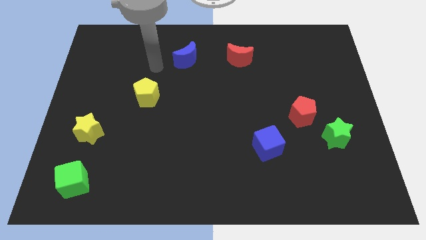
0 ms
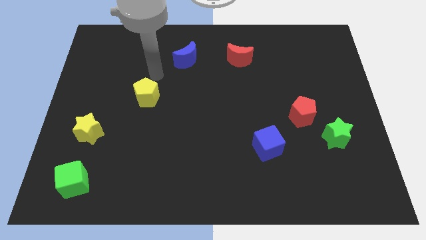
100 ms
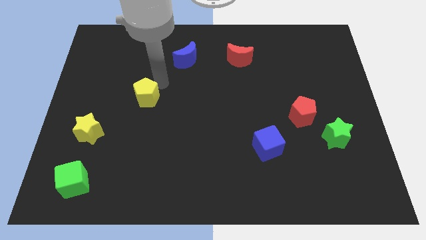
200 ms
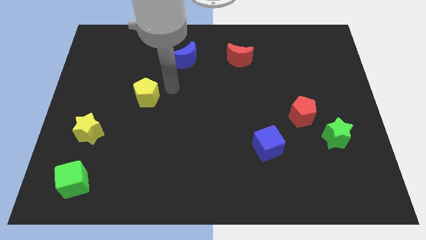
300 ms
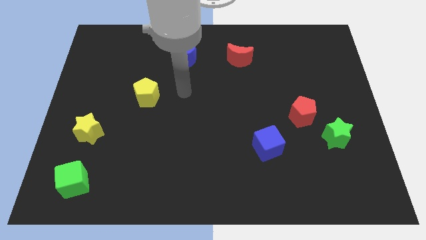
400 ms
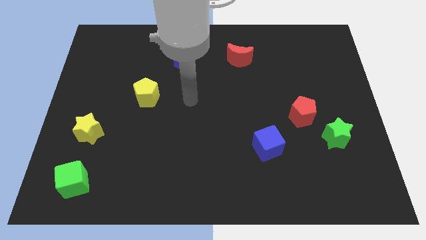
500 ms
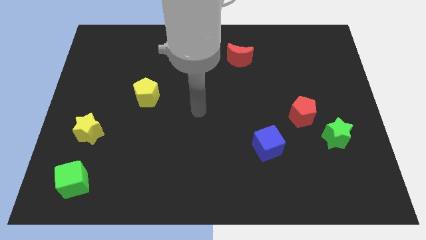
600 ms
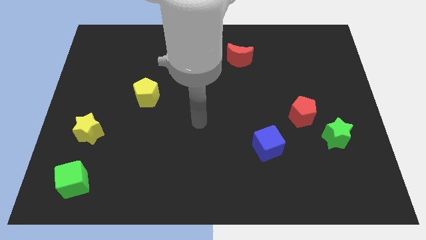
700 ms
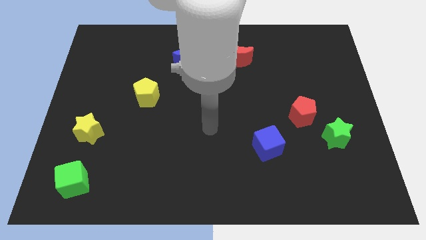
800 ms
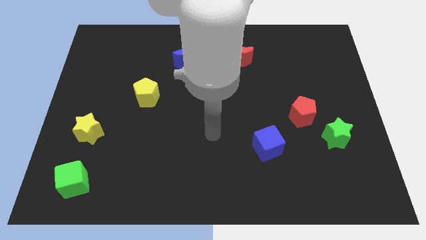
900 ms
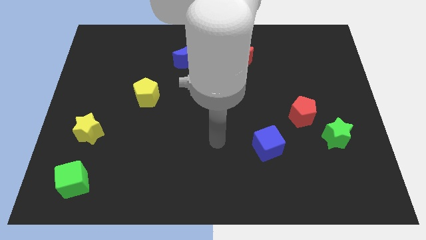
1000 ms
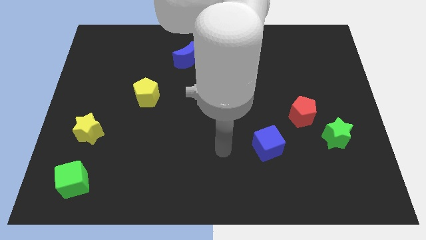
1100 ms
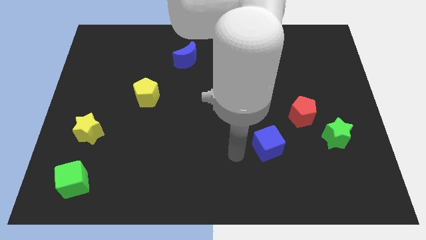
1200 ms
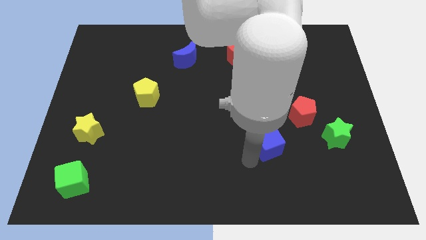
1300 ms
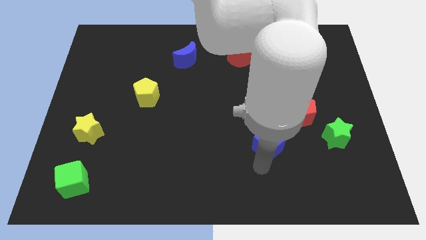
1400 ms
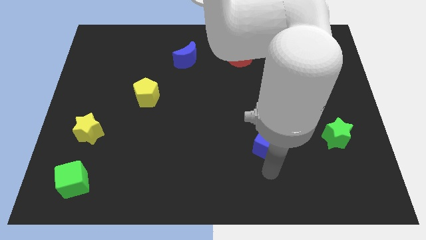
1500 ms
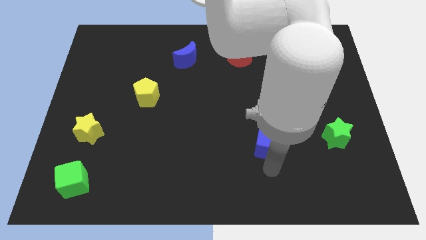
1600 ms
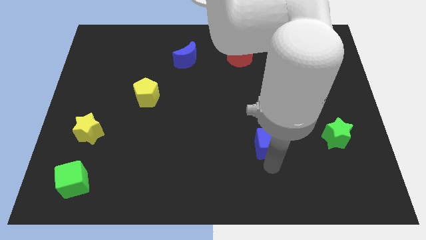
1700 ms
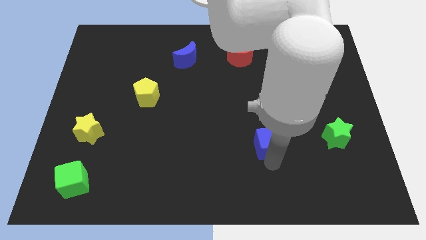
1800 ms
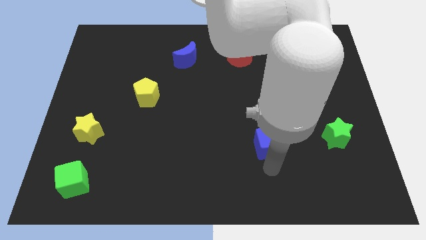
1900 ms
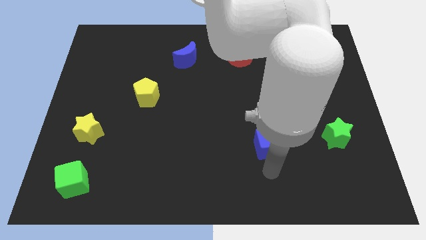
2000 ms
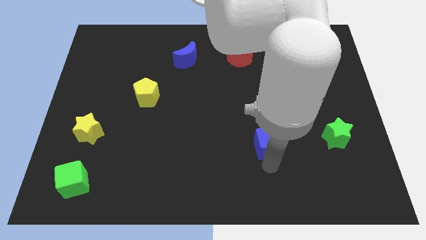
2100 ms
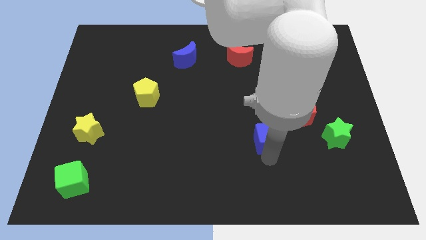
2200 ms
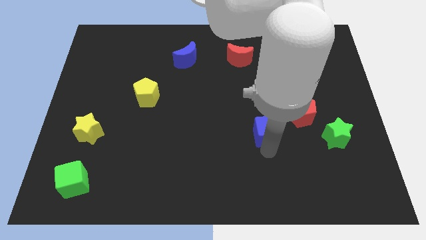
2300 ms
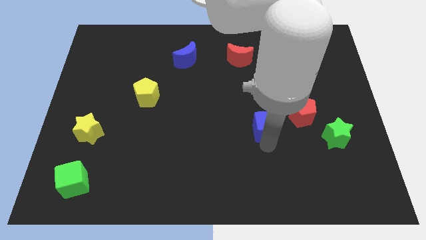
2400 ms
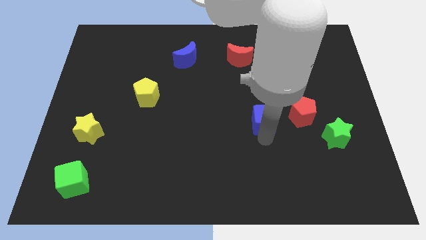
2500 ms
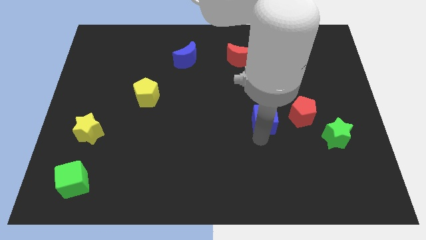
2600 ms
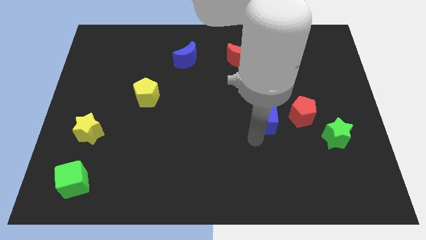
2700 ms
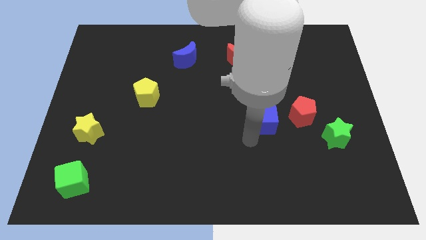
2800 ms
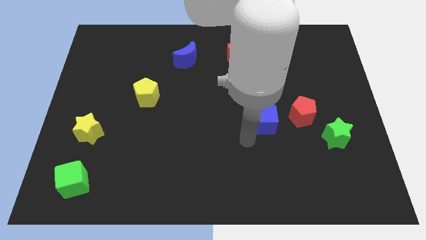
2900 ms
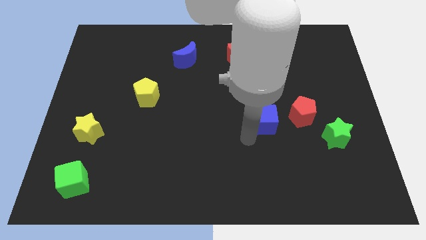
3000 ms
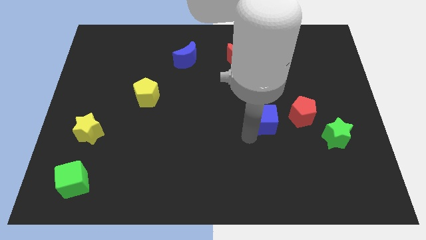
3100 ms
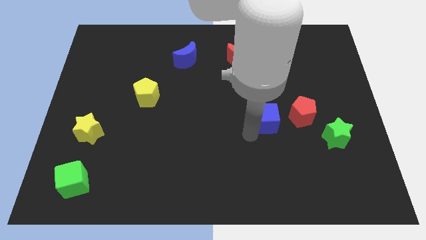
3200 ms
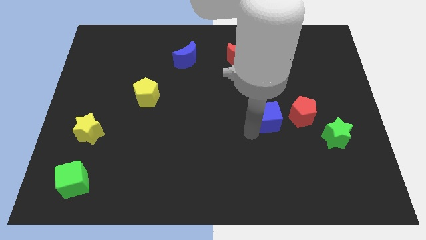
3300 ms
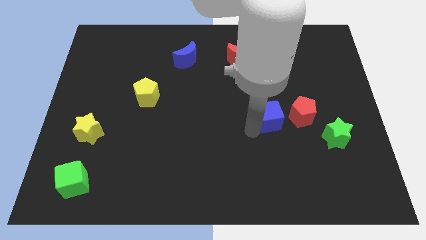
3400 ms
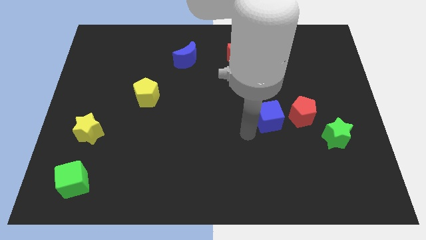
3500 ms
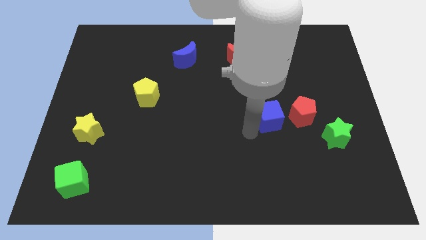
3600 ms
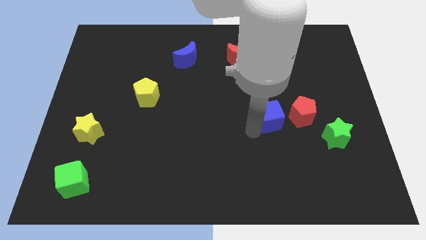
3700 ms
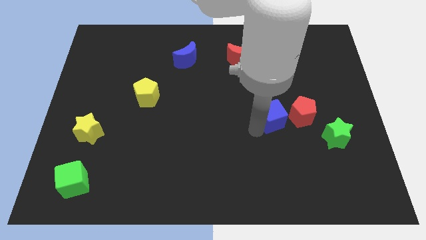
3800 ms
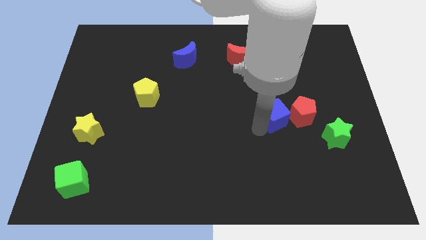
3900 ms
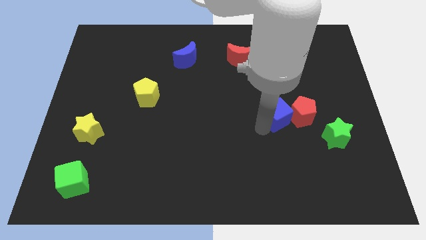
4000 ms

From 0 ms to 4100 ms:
slide the blue cube upwards and right somewhat

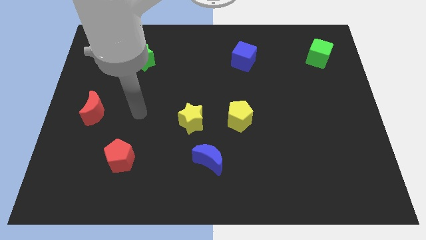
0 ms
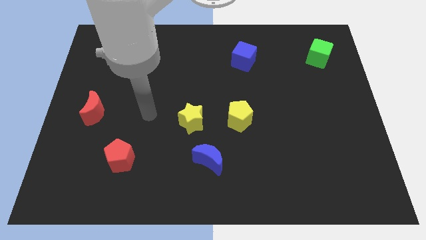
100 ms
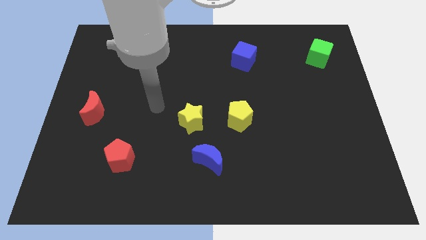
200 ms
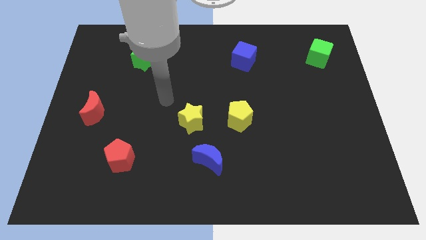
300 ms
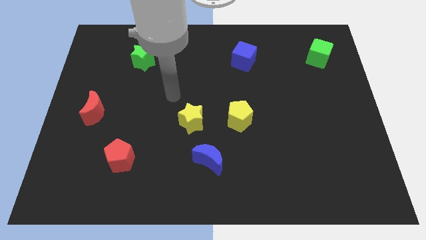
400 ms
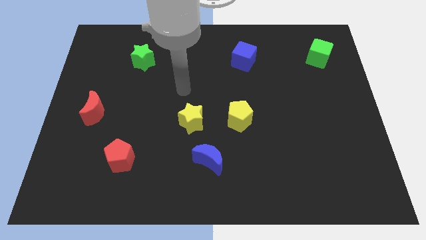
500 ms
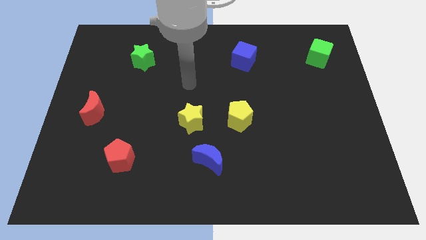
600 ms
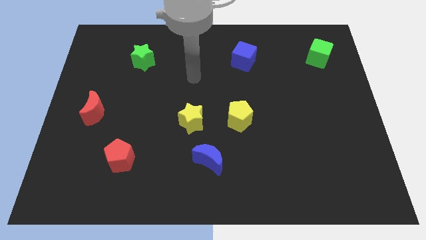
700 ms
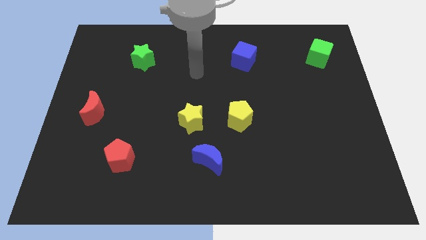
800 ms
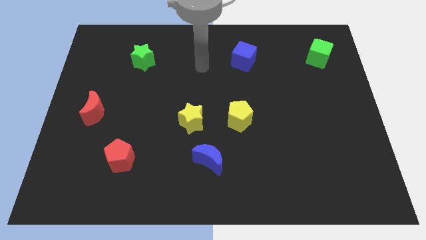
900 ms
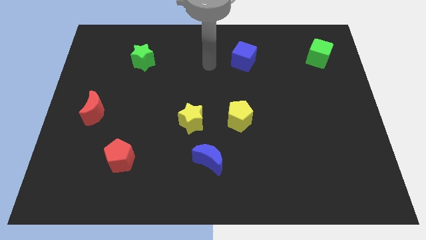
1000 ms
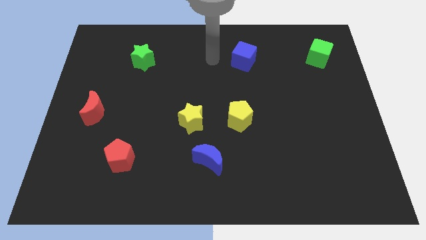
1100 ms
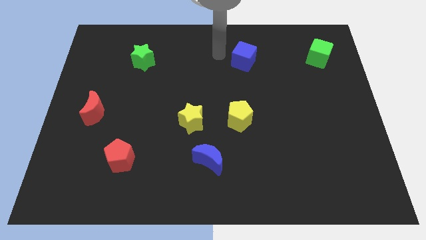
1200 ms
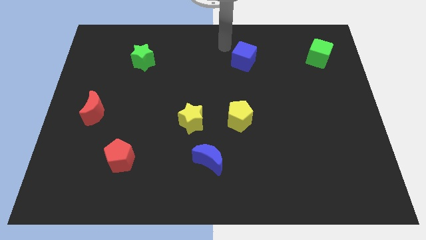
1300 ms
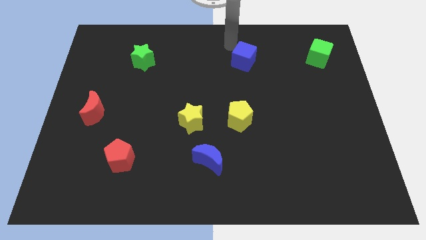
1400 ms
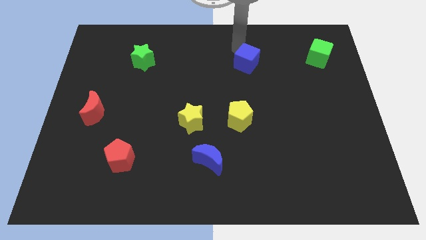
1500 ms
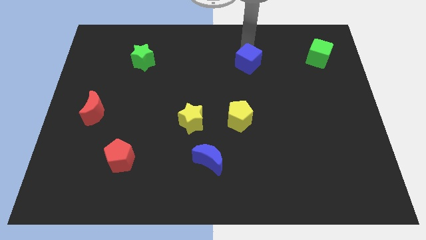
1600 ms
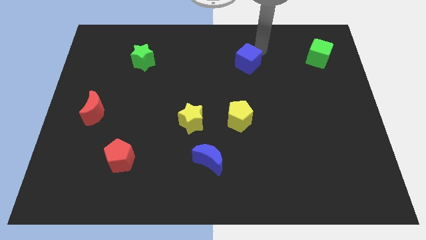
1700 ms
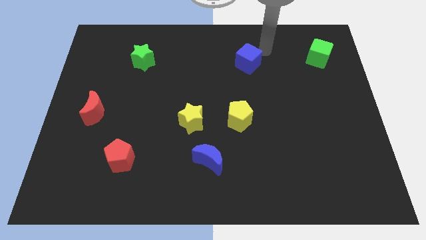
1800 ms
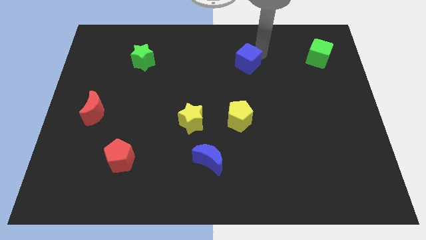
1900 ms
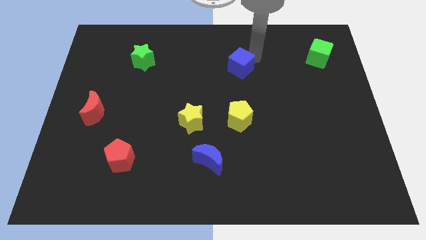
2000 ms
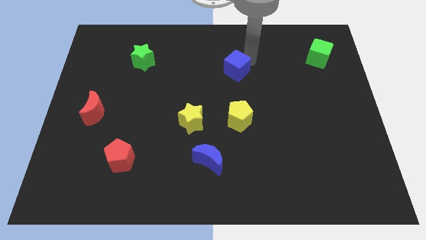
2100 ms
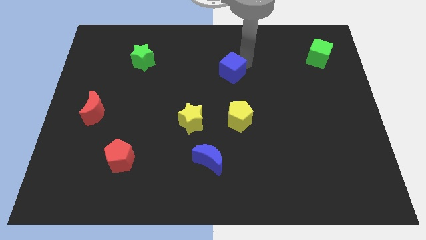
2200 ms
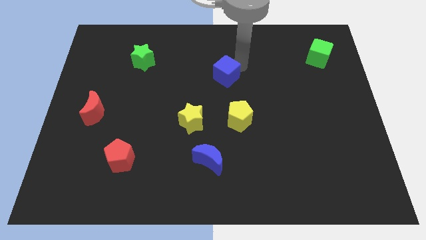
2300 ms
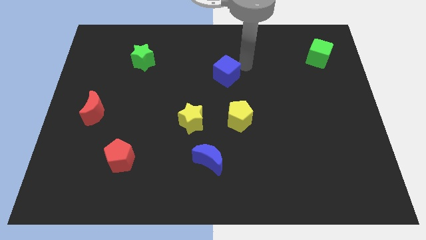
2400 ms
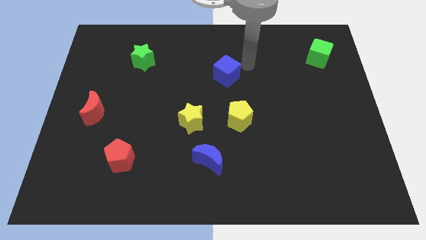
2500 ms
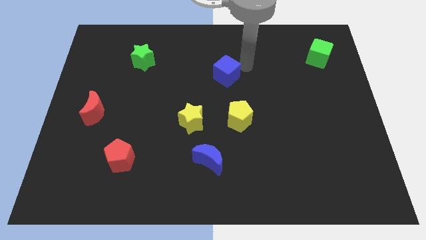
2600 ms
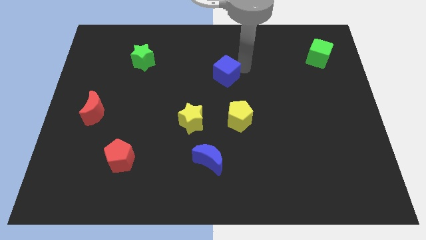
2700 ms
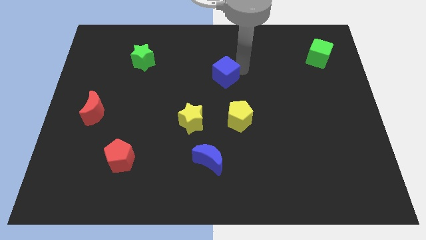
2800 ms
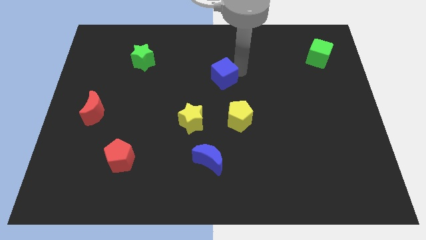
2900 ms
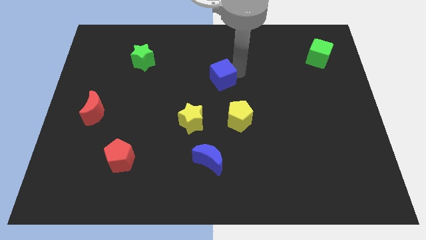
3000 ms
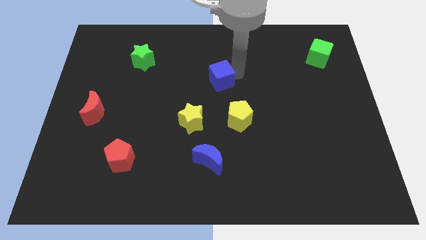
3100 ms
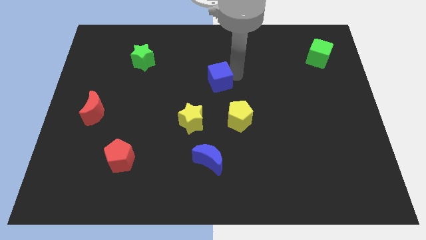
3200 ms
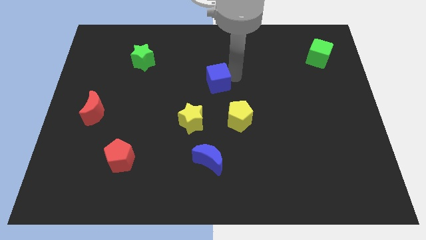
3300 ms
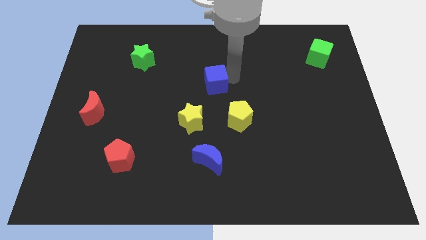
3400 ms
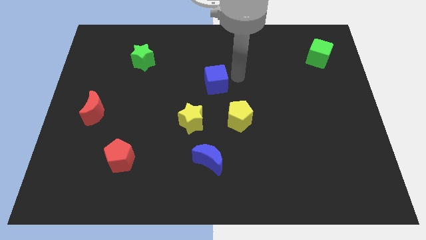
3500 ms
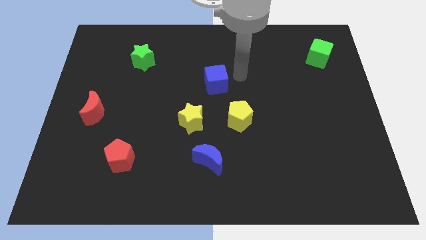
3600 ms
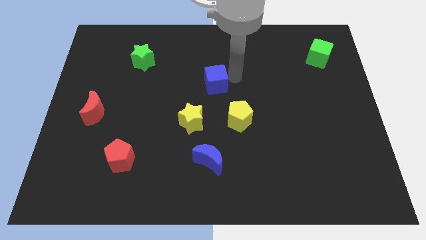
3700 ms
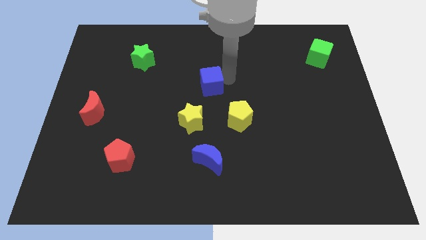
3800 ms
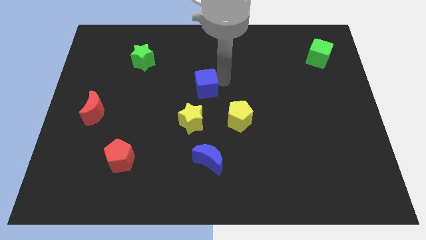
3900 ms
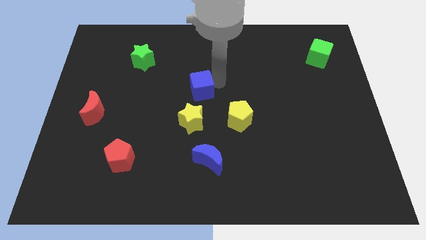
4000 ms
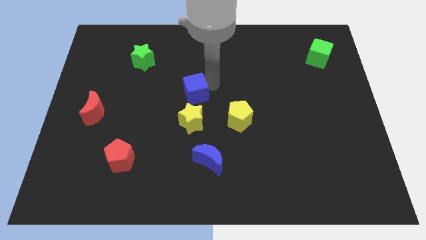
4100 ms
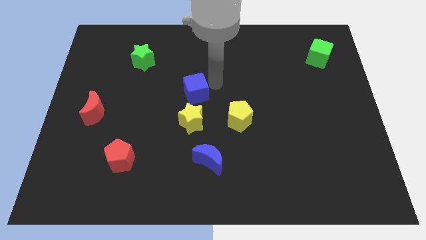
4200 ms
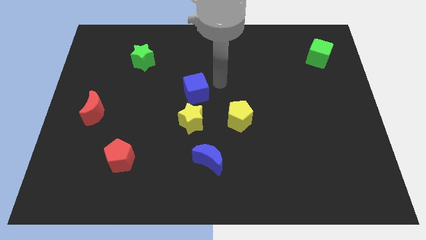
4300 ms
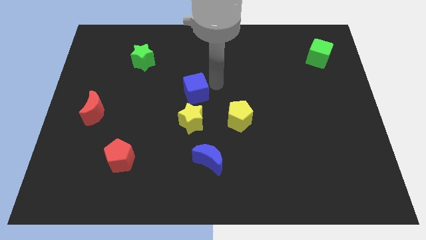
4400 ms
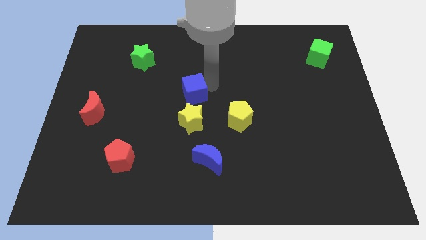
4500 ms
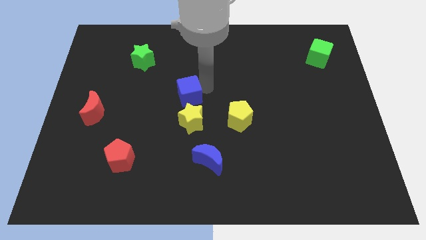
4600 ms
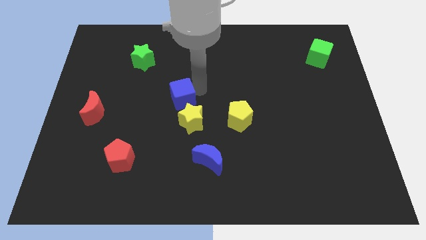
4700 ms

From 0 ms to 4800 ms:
push the blue cube down and then left
